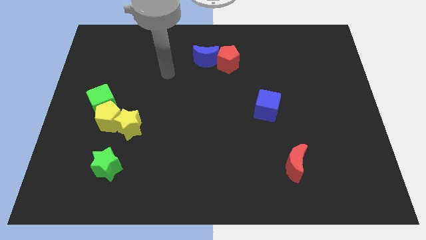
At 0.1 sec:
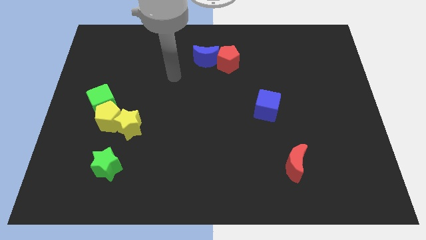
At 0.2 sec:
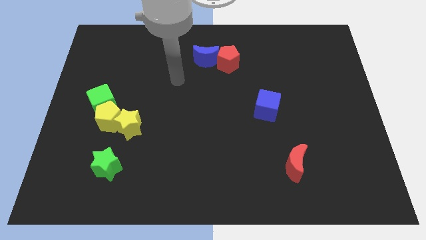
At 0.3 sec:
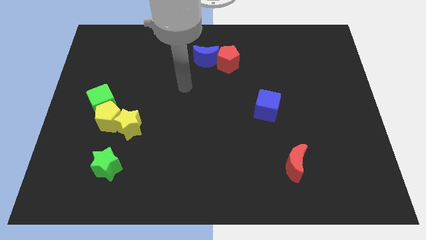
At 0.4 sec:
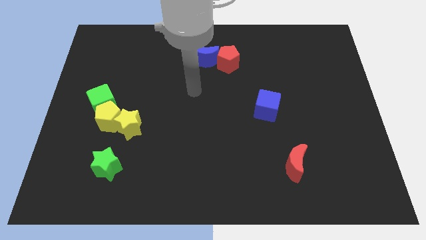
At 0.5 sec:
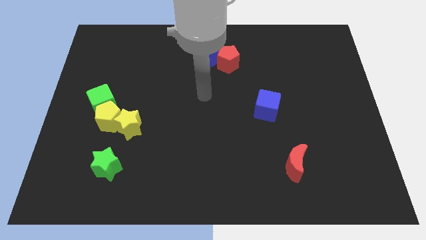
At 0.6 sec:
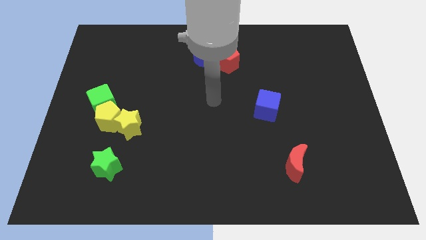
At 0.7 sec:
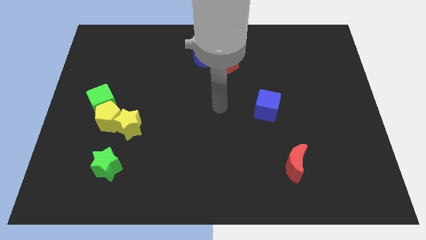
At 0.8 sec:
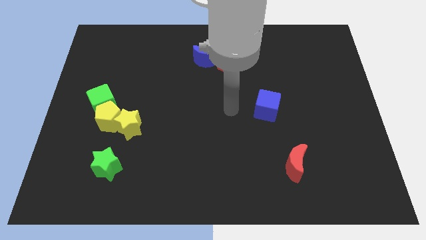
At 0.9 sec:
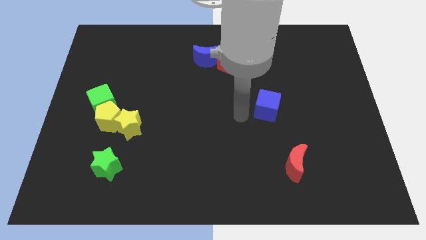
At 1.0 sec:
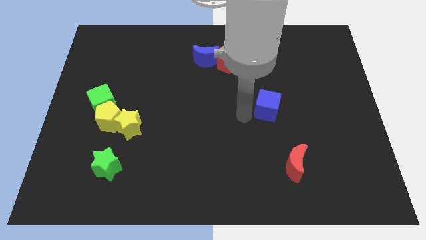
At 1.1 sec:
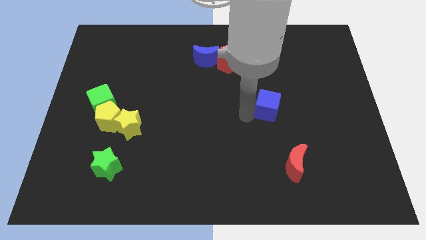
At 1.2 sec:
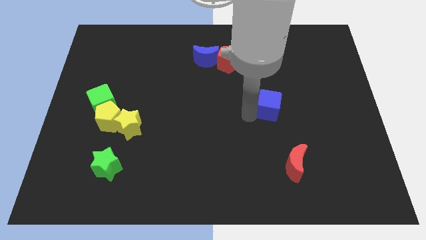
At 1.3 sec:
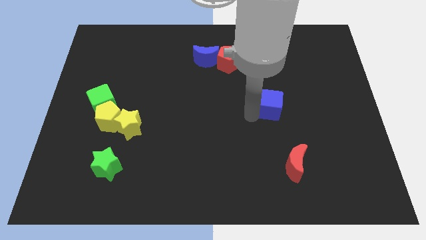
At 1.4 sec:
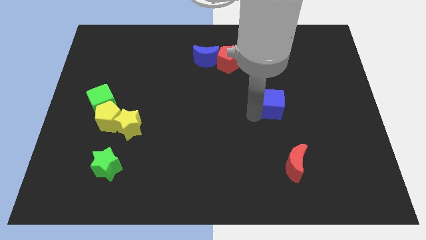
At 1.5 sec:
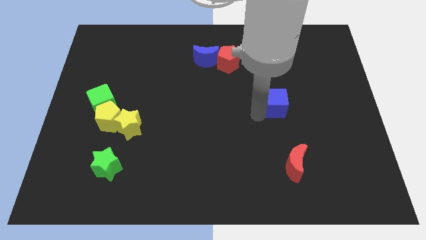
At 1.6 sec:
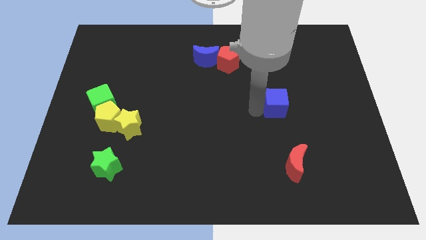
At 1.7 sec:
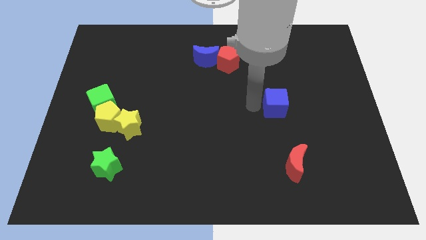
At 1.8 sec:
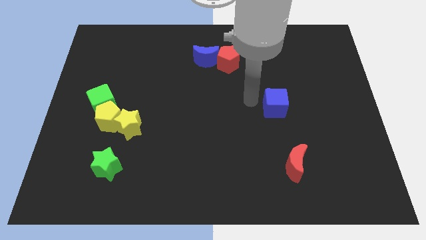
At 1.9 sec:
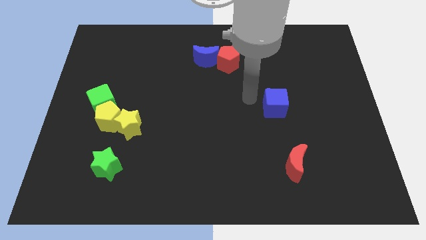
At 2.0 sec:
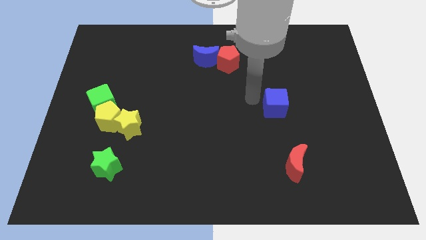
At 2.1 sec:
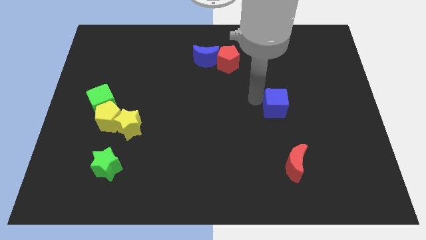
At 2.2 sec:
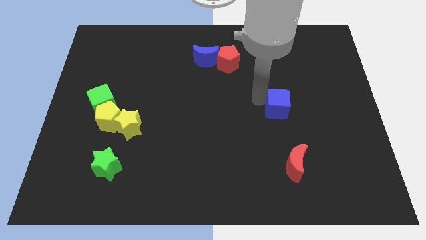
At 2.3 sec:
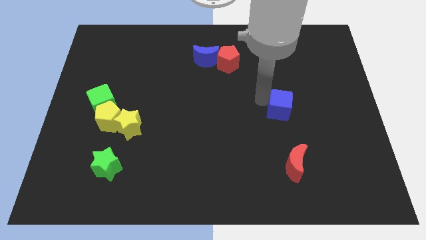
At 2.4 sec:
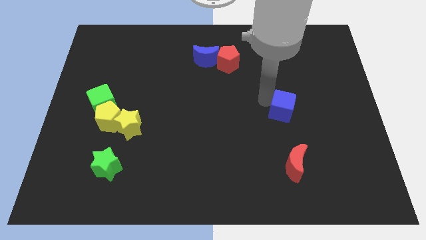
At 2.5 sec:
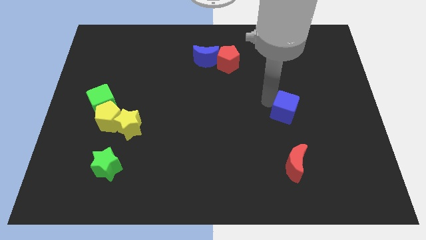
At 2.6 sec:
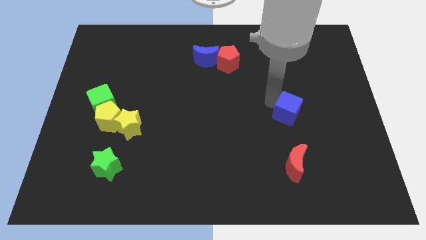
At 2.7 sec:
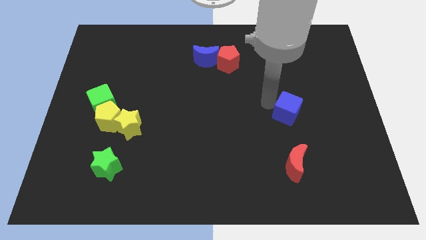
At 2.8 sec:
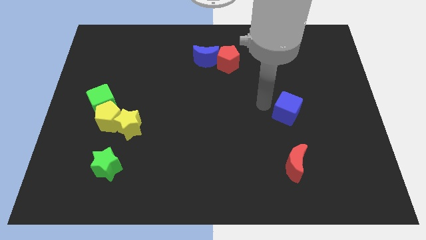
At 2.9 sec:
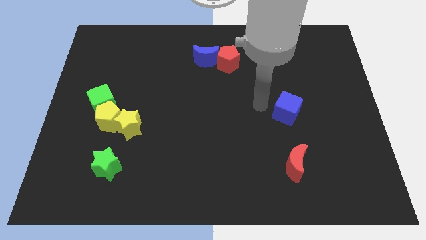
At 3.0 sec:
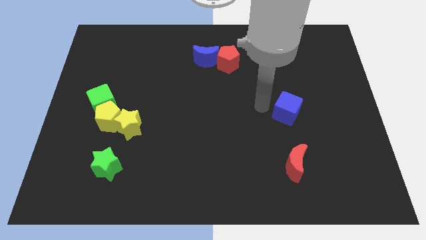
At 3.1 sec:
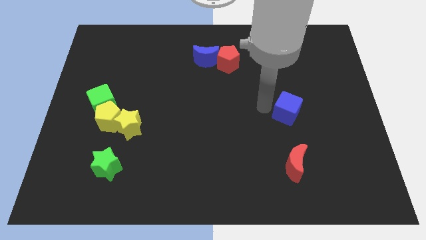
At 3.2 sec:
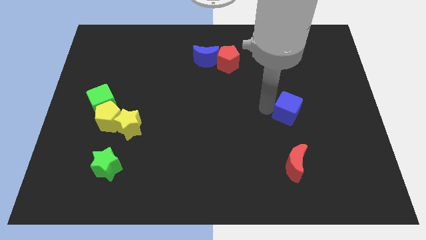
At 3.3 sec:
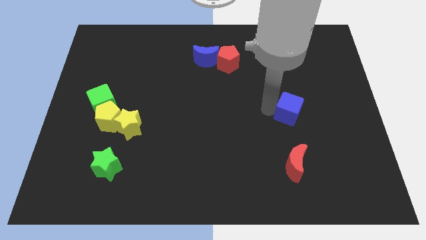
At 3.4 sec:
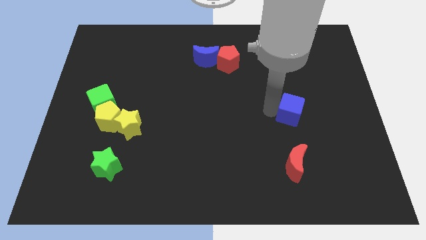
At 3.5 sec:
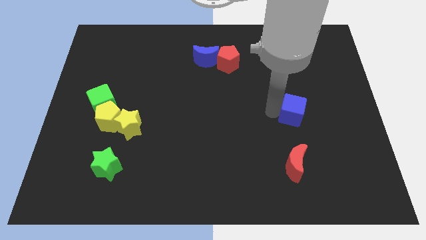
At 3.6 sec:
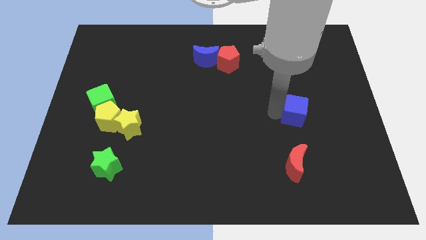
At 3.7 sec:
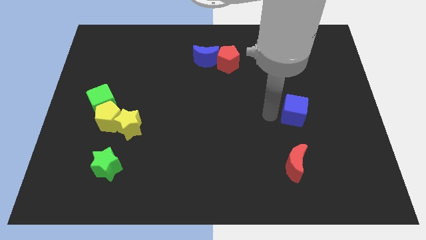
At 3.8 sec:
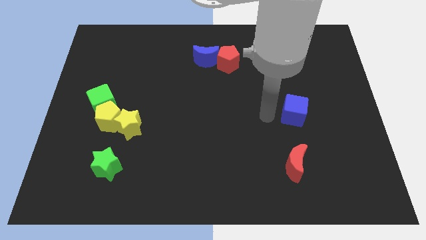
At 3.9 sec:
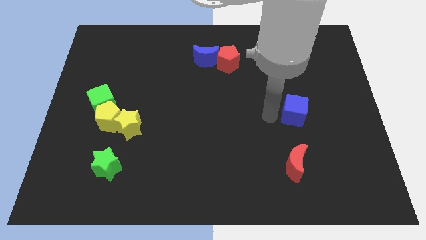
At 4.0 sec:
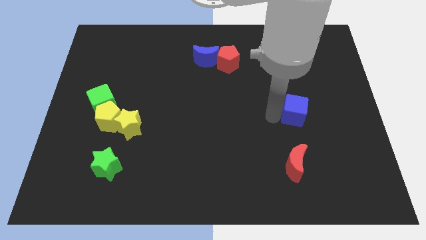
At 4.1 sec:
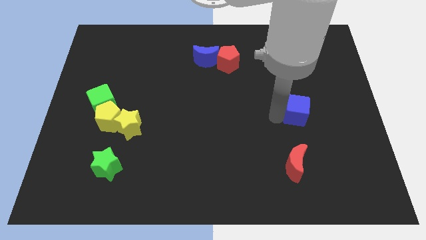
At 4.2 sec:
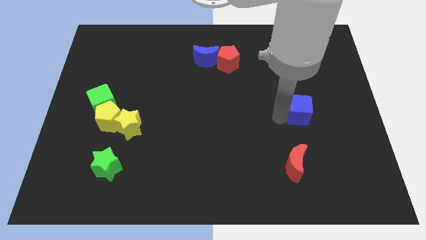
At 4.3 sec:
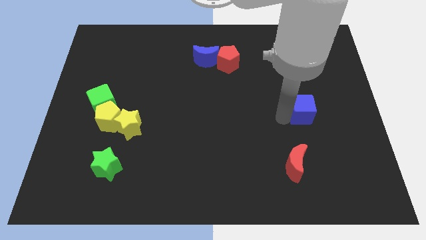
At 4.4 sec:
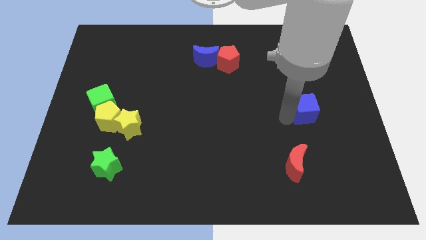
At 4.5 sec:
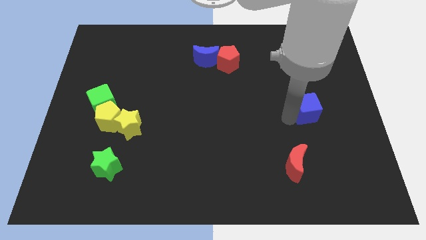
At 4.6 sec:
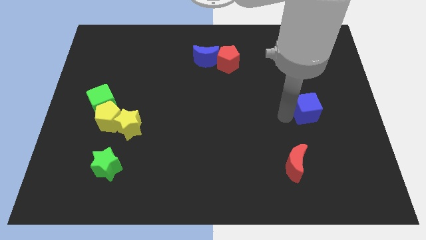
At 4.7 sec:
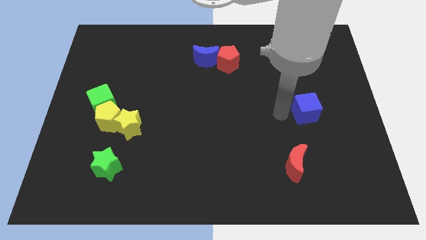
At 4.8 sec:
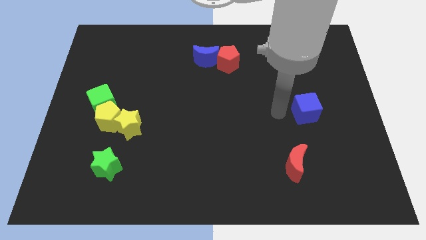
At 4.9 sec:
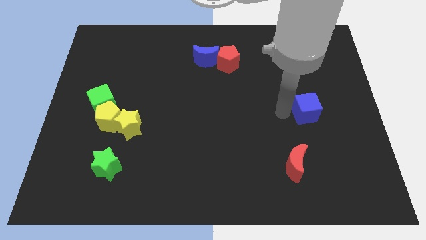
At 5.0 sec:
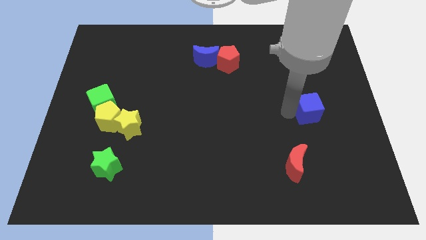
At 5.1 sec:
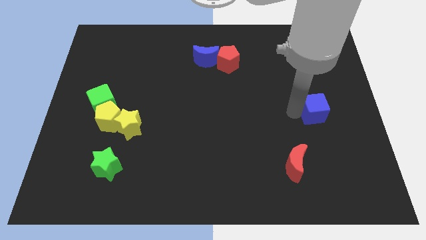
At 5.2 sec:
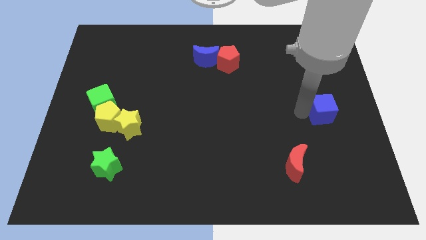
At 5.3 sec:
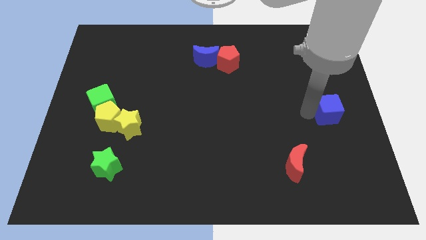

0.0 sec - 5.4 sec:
put the blue cube to the right side
